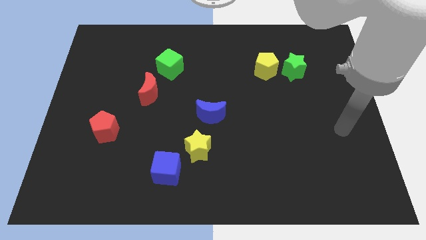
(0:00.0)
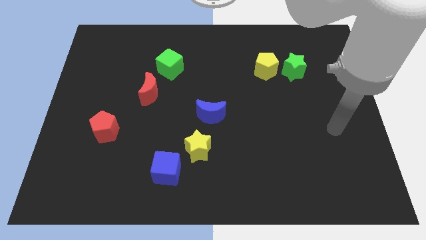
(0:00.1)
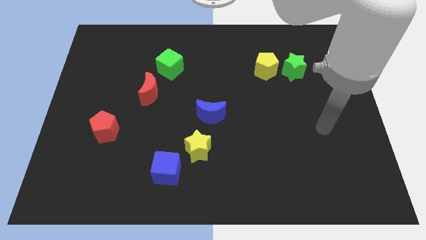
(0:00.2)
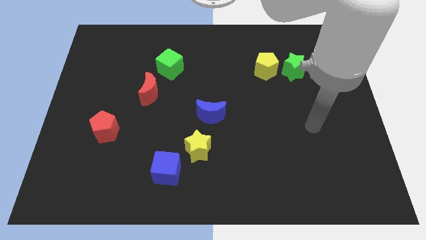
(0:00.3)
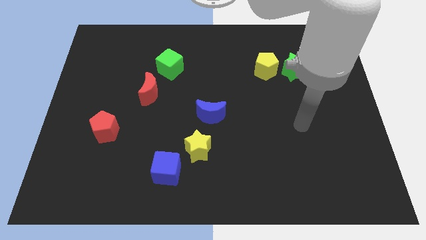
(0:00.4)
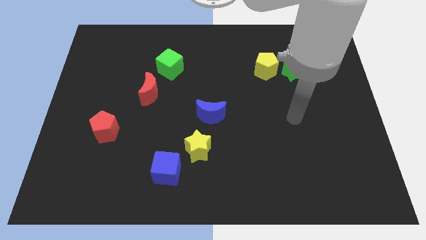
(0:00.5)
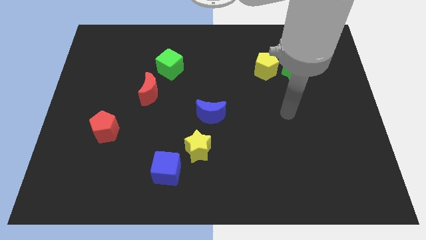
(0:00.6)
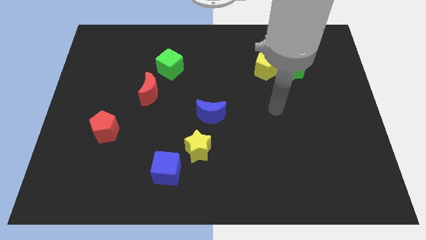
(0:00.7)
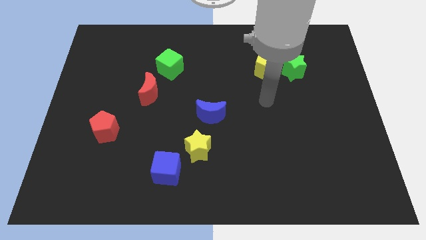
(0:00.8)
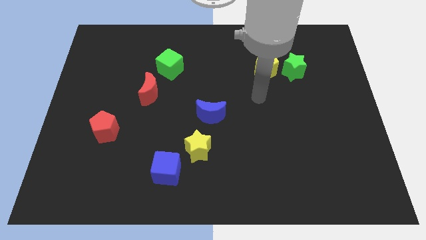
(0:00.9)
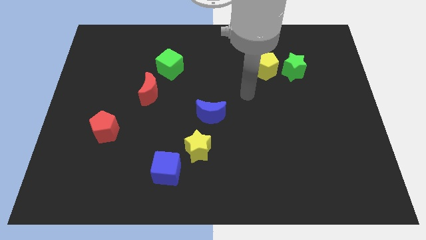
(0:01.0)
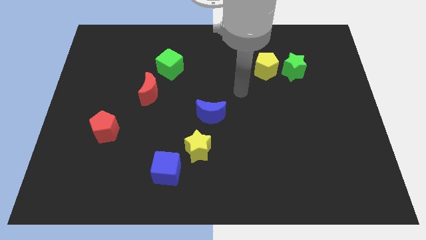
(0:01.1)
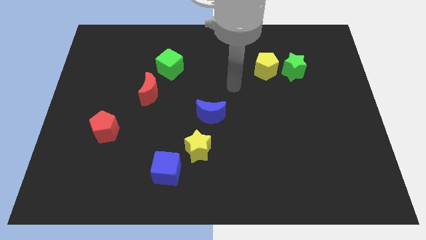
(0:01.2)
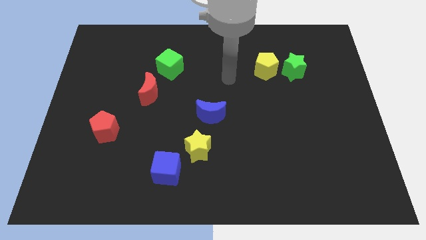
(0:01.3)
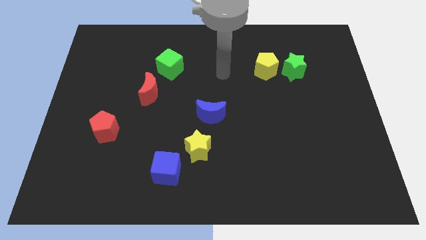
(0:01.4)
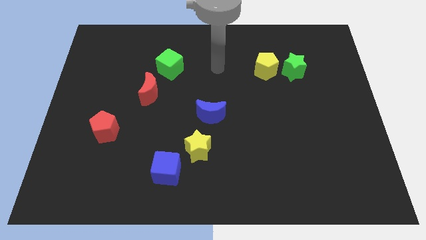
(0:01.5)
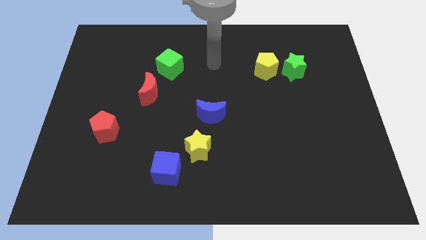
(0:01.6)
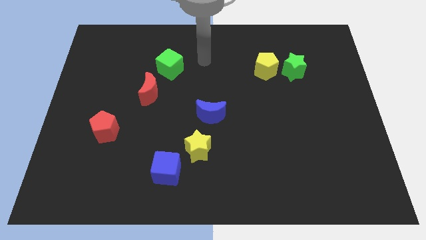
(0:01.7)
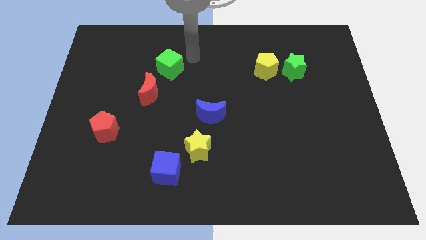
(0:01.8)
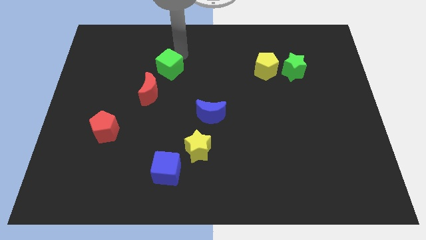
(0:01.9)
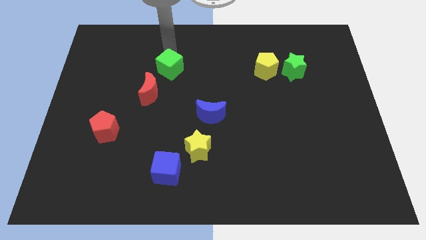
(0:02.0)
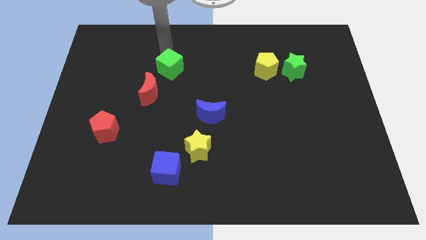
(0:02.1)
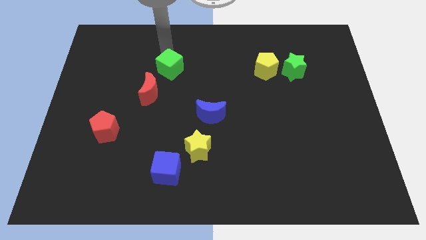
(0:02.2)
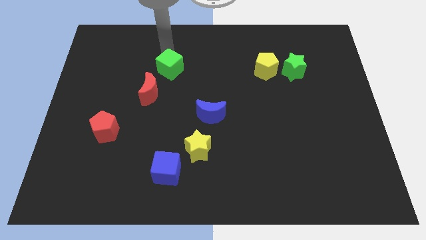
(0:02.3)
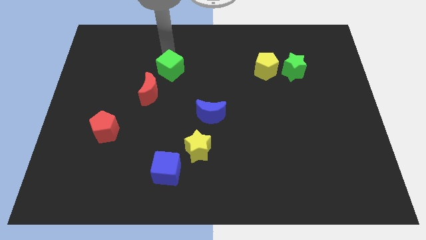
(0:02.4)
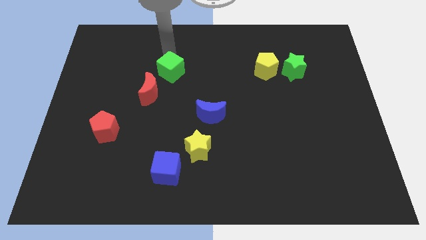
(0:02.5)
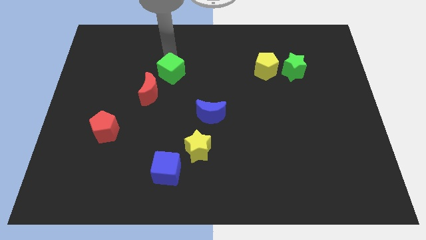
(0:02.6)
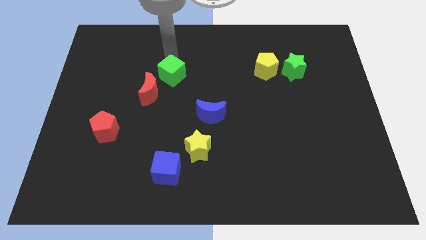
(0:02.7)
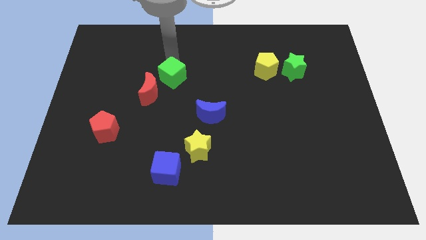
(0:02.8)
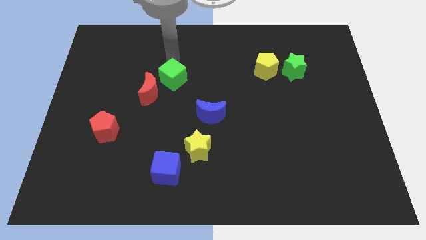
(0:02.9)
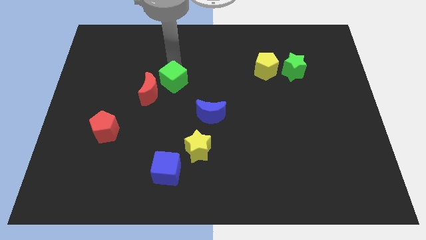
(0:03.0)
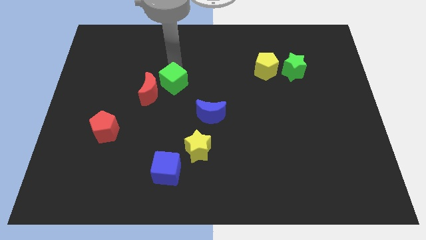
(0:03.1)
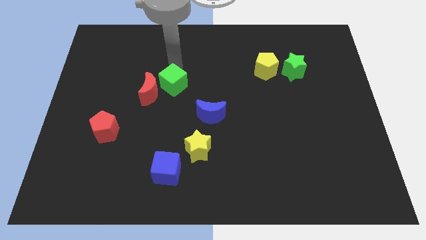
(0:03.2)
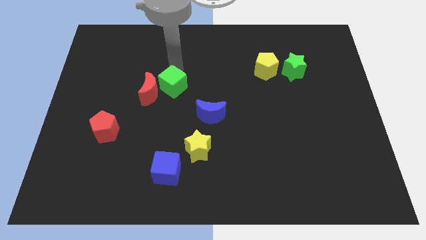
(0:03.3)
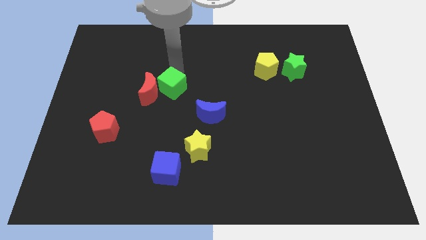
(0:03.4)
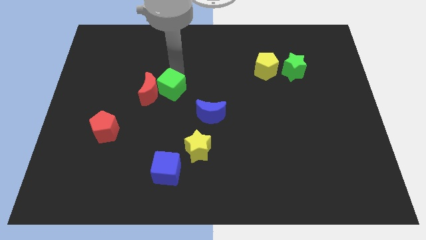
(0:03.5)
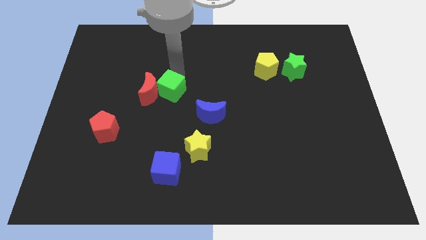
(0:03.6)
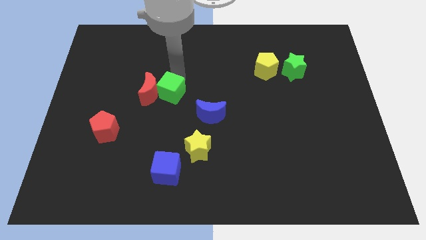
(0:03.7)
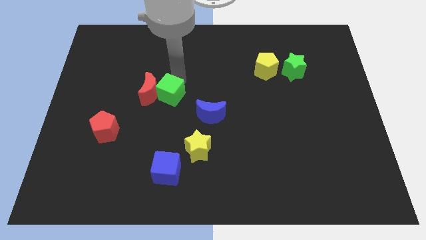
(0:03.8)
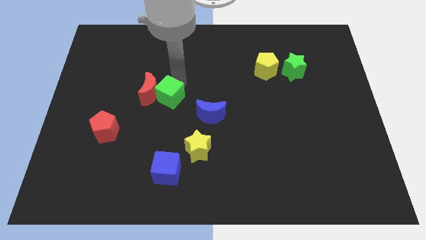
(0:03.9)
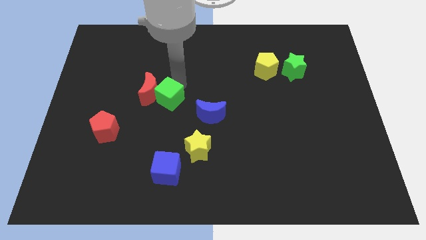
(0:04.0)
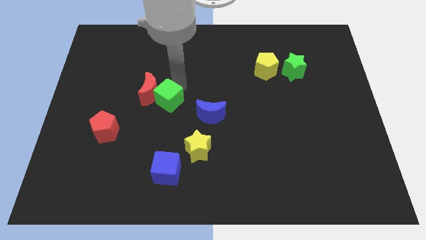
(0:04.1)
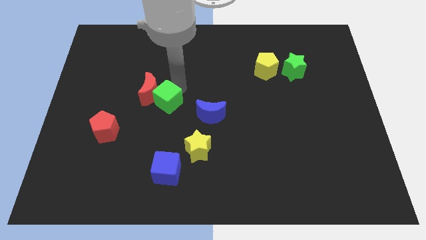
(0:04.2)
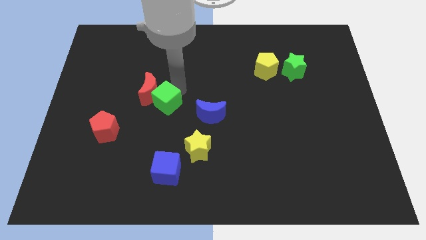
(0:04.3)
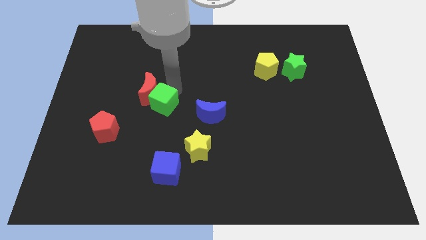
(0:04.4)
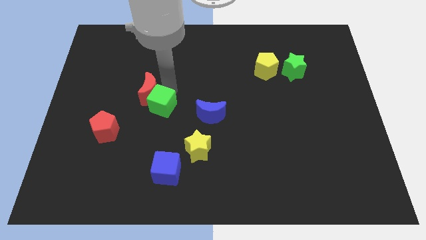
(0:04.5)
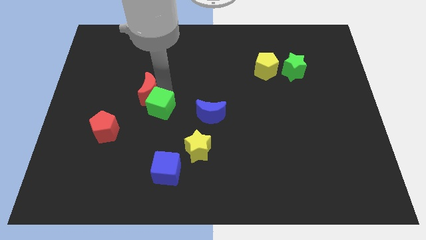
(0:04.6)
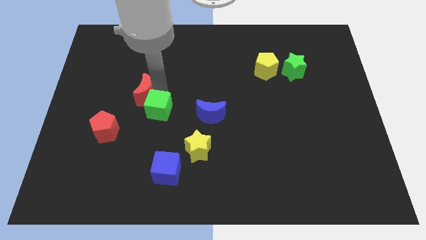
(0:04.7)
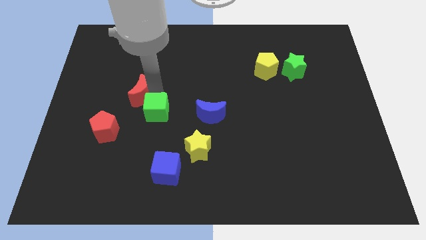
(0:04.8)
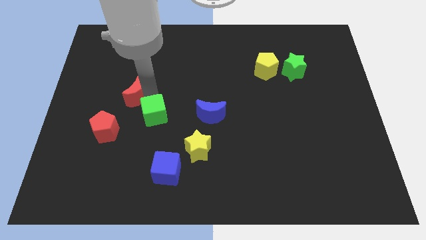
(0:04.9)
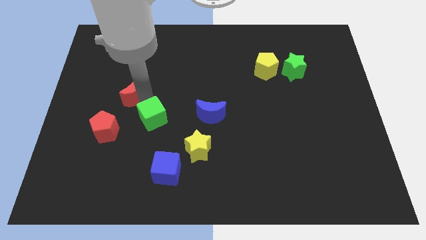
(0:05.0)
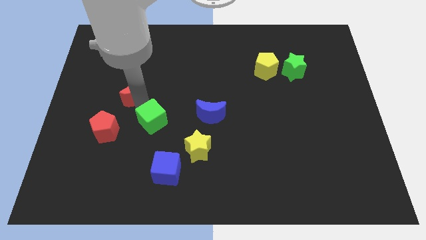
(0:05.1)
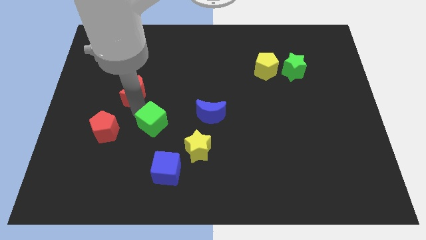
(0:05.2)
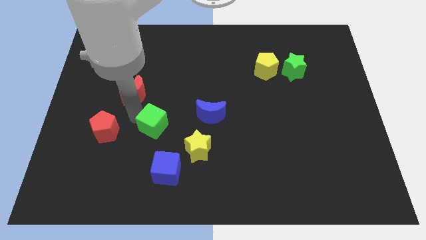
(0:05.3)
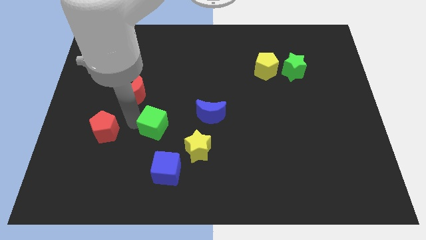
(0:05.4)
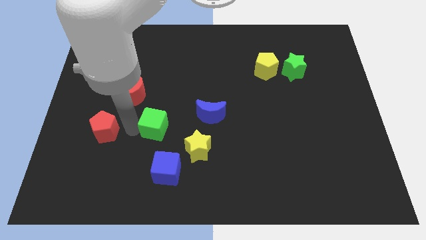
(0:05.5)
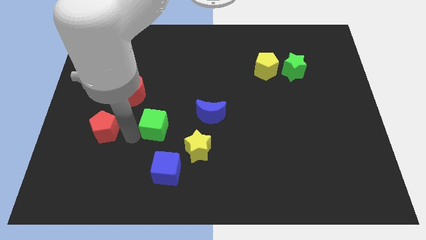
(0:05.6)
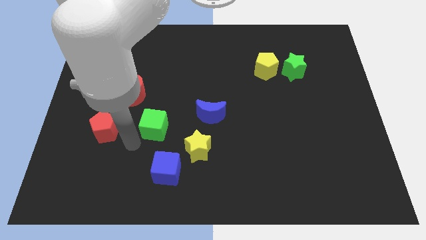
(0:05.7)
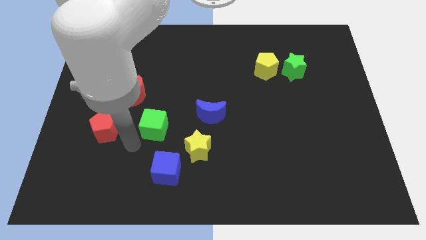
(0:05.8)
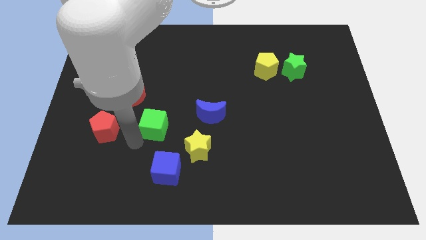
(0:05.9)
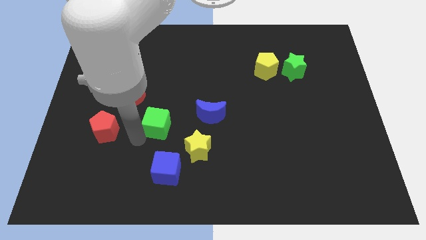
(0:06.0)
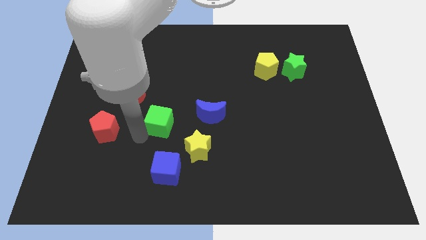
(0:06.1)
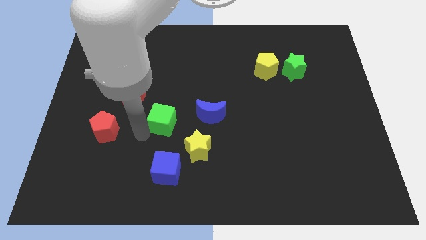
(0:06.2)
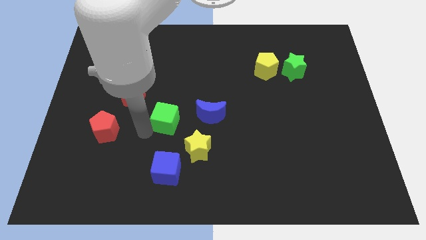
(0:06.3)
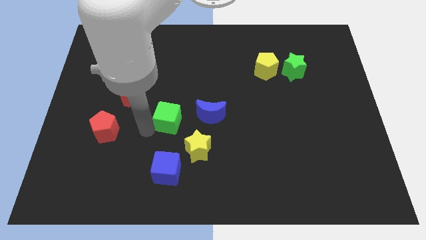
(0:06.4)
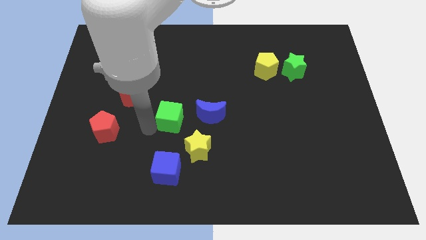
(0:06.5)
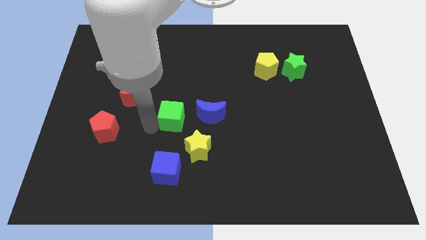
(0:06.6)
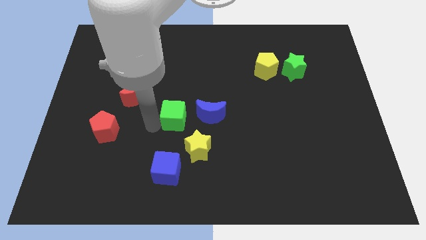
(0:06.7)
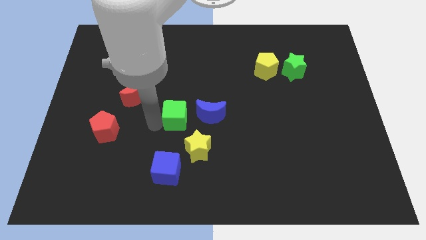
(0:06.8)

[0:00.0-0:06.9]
put the green cube to the bottom left side of the blue moon
